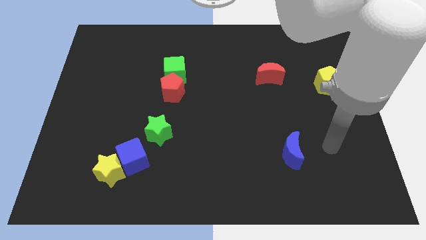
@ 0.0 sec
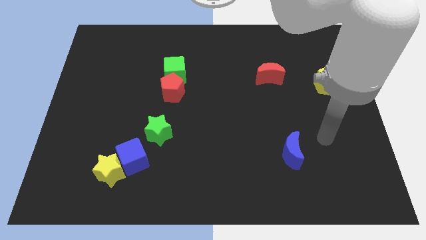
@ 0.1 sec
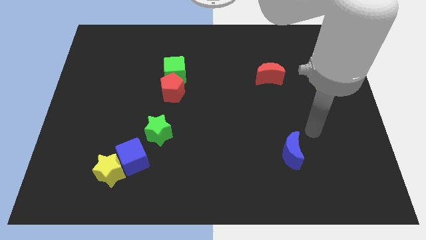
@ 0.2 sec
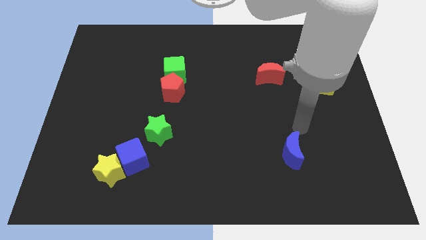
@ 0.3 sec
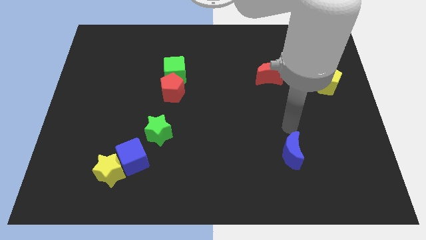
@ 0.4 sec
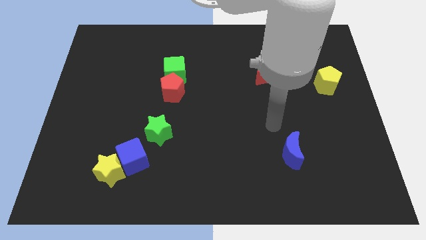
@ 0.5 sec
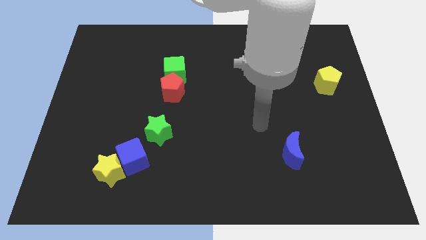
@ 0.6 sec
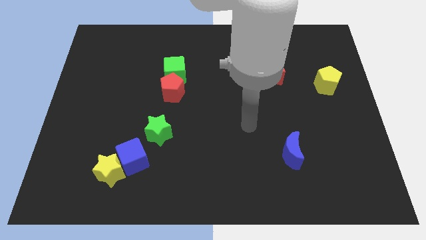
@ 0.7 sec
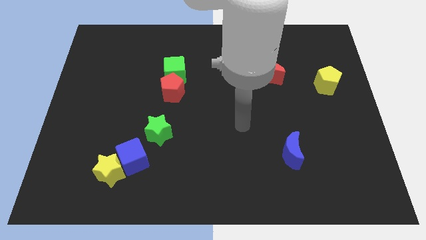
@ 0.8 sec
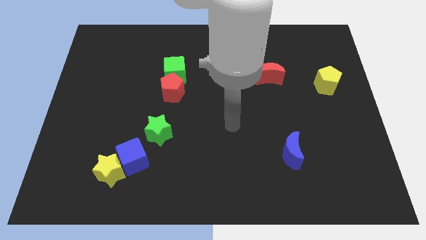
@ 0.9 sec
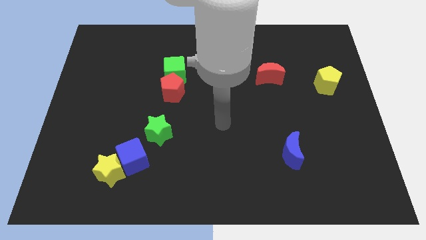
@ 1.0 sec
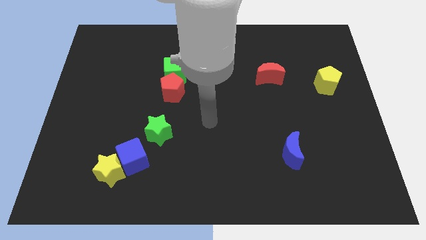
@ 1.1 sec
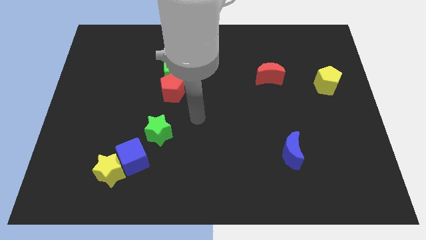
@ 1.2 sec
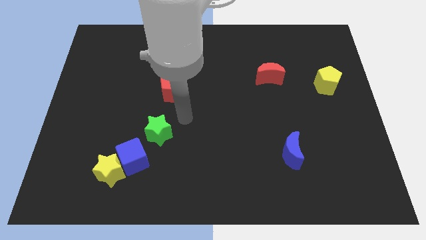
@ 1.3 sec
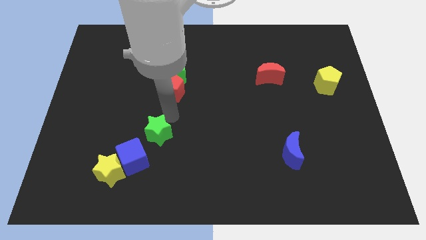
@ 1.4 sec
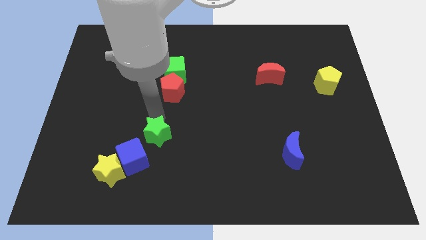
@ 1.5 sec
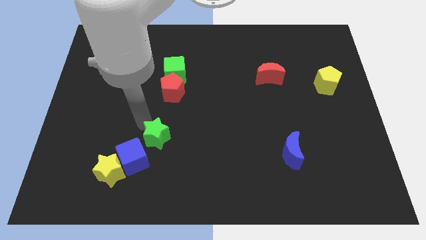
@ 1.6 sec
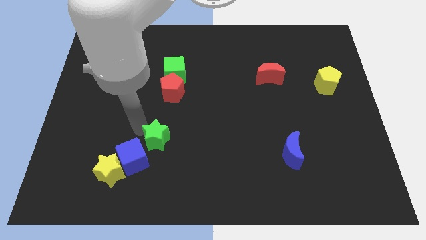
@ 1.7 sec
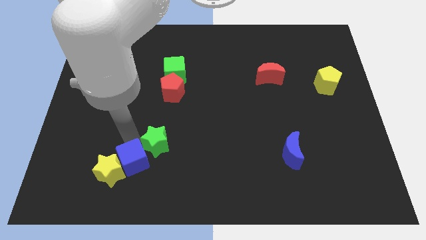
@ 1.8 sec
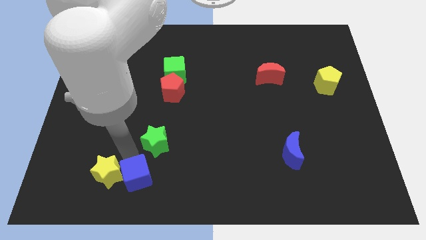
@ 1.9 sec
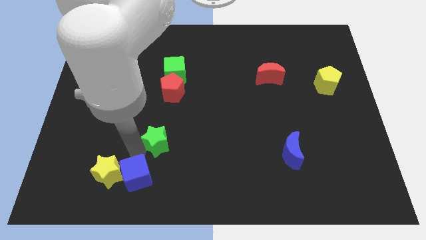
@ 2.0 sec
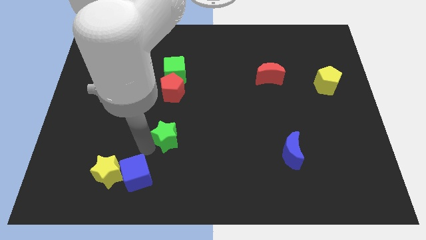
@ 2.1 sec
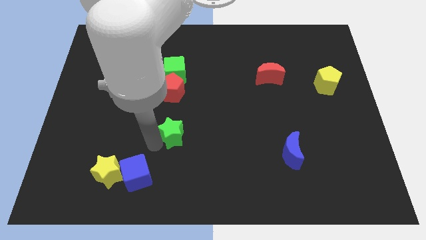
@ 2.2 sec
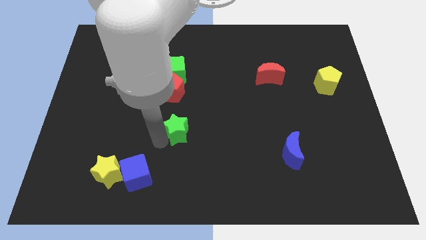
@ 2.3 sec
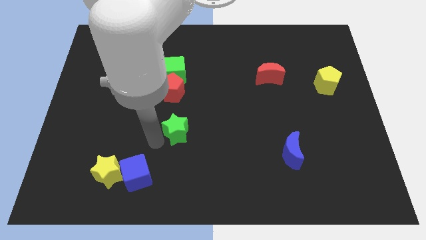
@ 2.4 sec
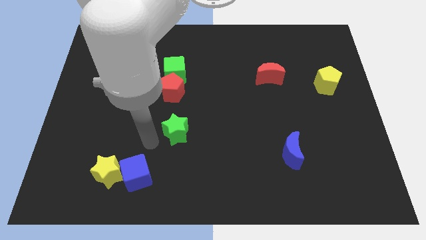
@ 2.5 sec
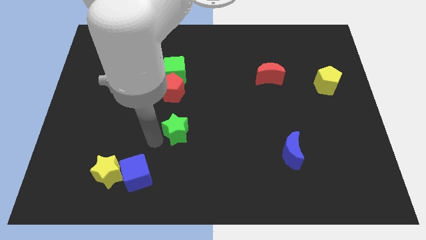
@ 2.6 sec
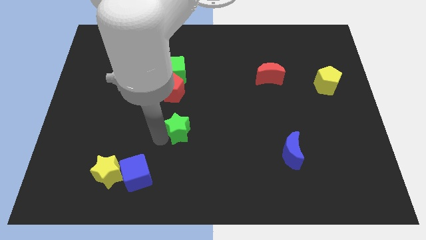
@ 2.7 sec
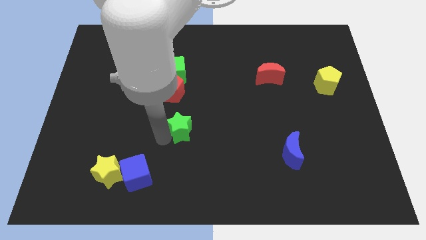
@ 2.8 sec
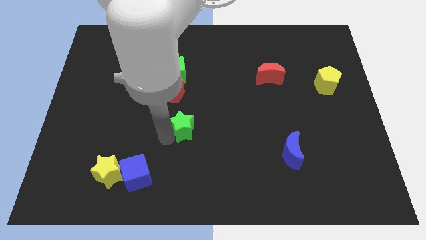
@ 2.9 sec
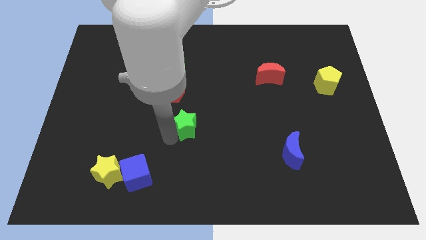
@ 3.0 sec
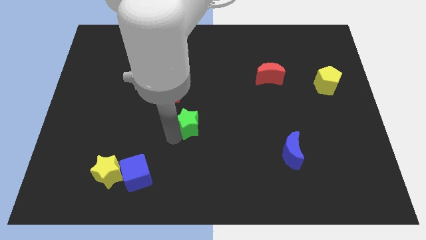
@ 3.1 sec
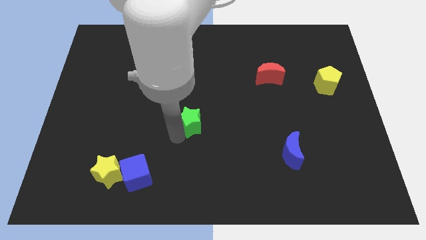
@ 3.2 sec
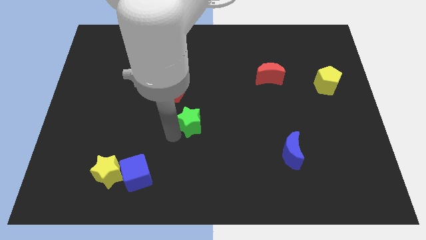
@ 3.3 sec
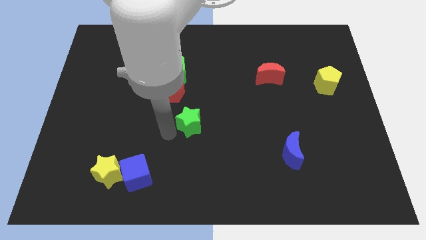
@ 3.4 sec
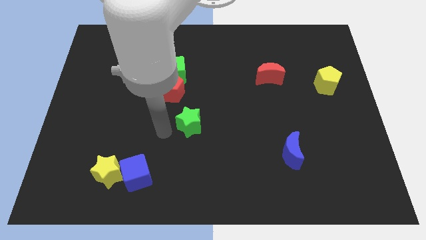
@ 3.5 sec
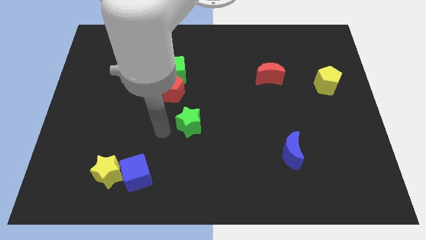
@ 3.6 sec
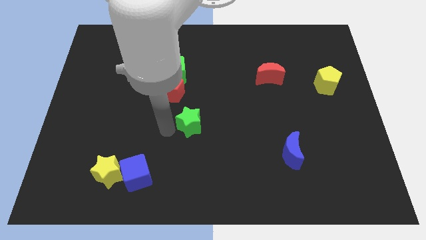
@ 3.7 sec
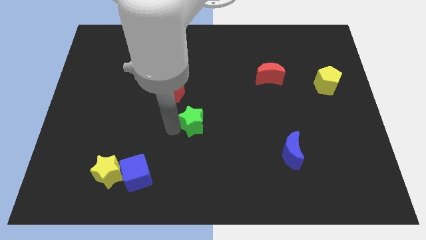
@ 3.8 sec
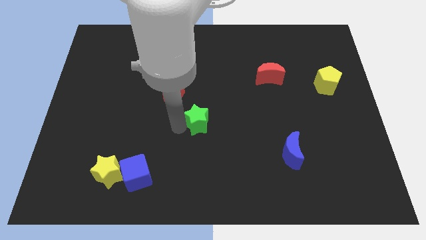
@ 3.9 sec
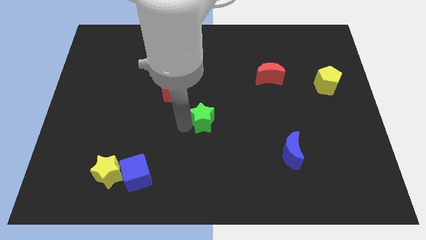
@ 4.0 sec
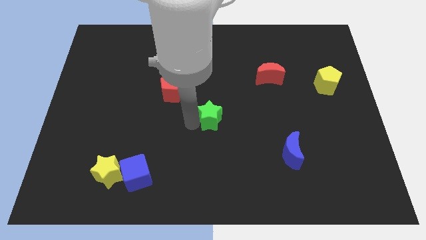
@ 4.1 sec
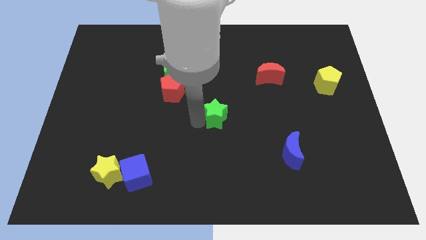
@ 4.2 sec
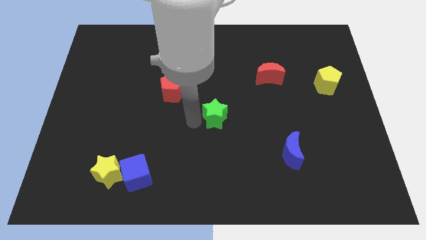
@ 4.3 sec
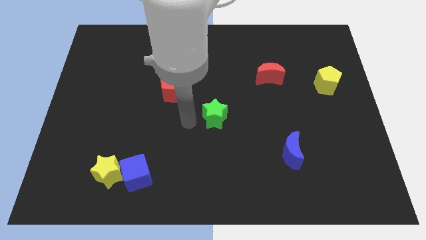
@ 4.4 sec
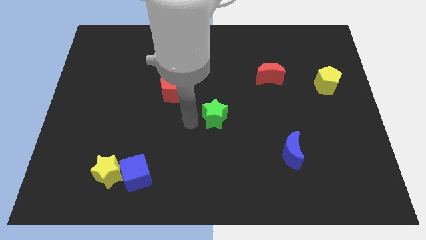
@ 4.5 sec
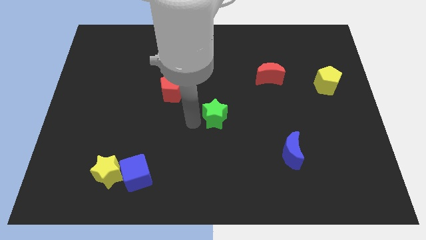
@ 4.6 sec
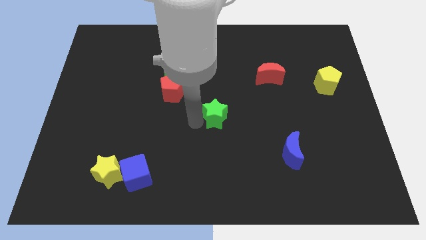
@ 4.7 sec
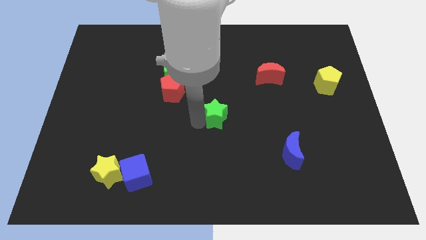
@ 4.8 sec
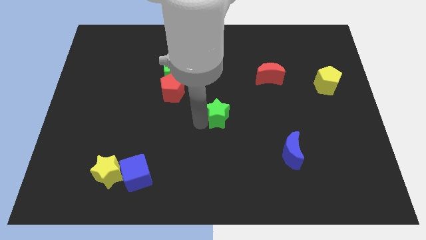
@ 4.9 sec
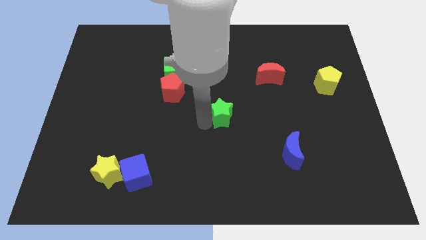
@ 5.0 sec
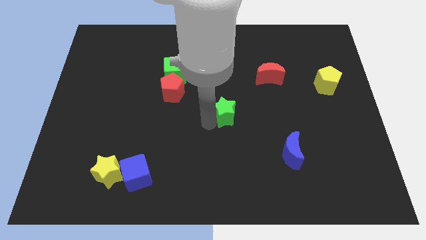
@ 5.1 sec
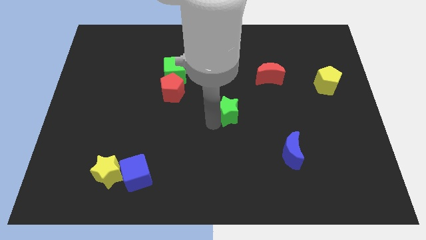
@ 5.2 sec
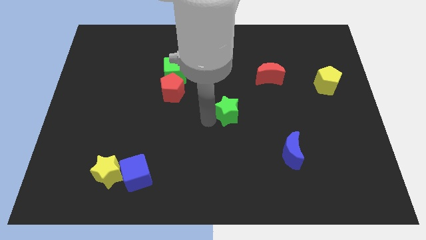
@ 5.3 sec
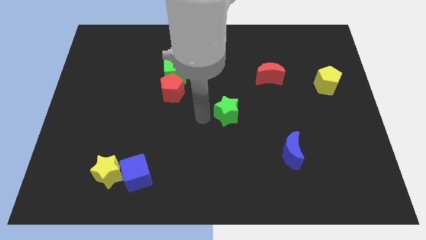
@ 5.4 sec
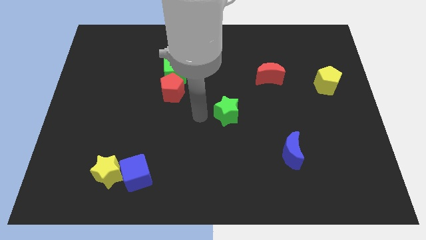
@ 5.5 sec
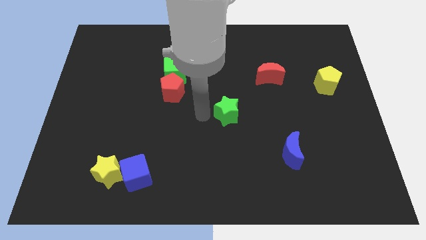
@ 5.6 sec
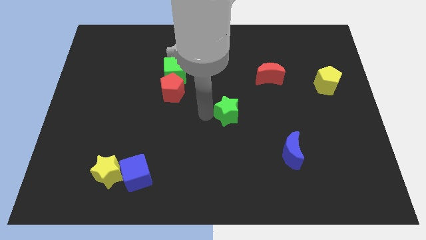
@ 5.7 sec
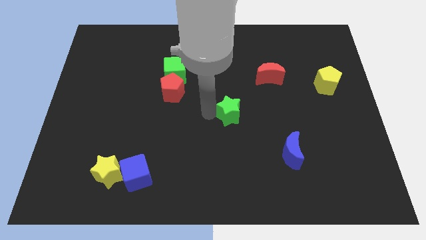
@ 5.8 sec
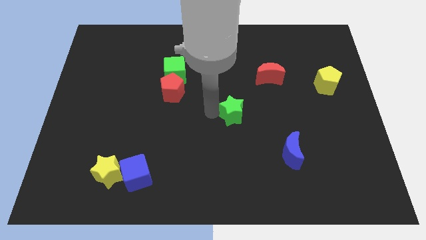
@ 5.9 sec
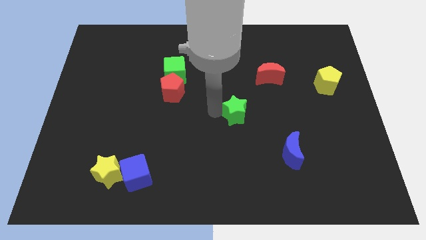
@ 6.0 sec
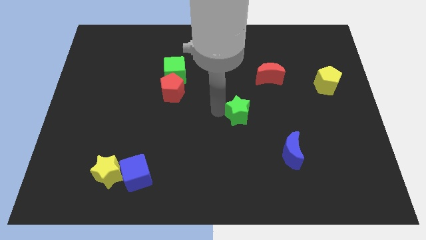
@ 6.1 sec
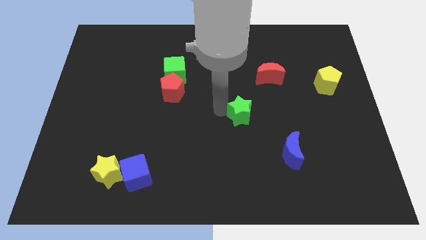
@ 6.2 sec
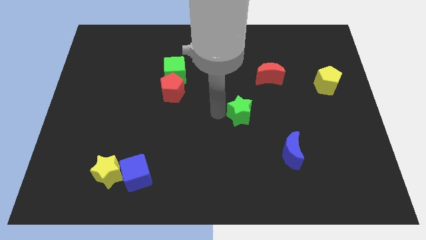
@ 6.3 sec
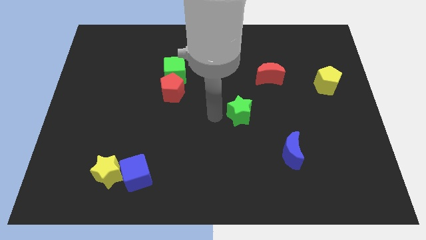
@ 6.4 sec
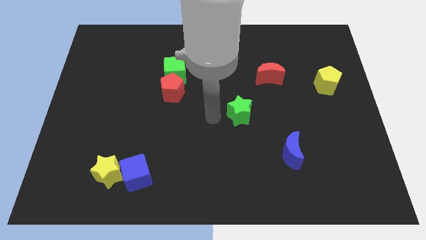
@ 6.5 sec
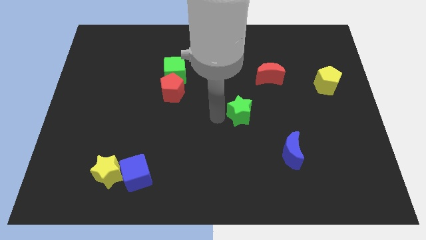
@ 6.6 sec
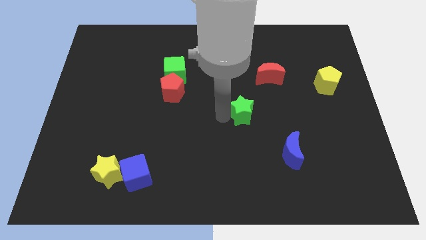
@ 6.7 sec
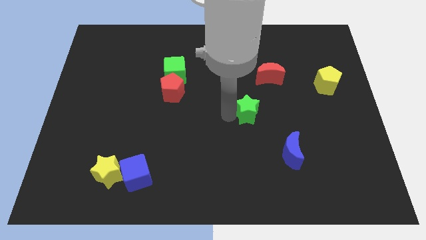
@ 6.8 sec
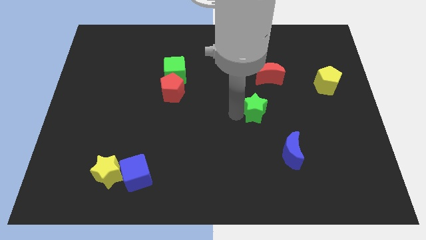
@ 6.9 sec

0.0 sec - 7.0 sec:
move the green star below the red moon

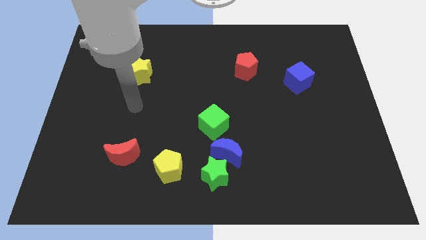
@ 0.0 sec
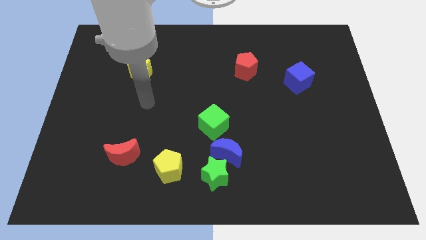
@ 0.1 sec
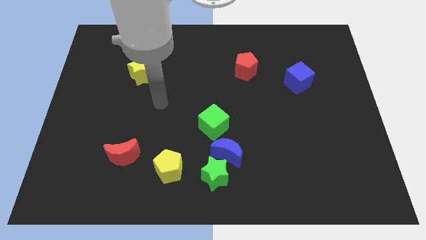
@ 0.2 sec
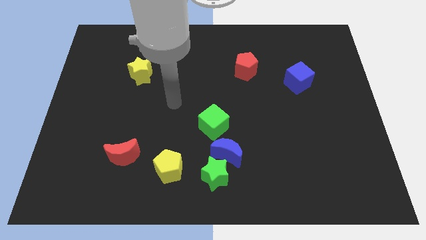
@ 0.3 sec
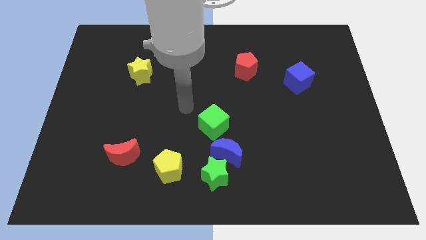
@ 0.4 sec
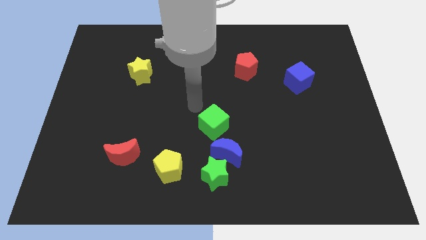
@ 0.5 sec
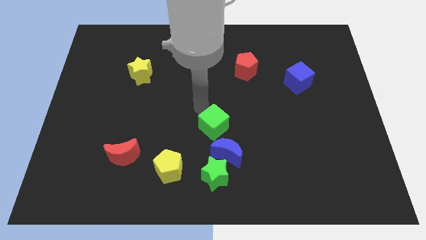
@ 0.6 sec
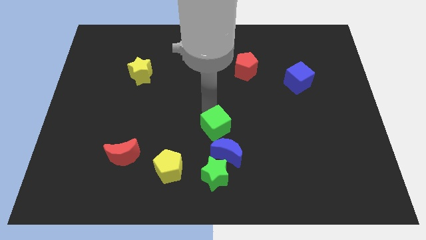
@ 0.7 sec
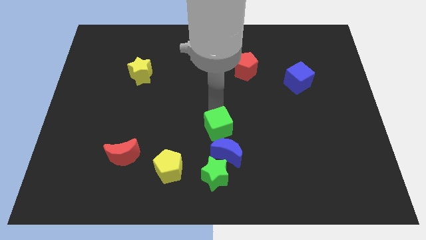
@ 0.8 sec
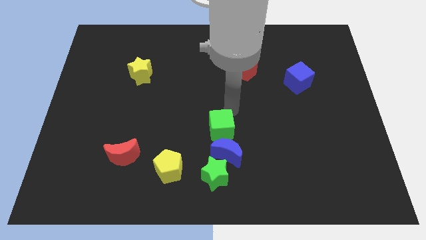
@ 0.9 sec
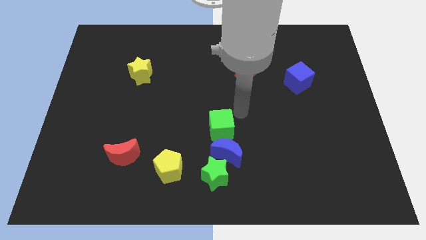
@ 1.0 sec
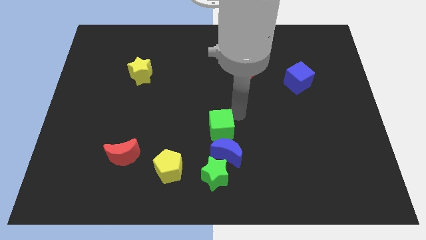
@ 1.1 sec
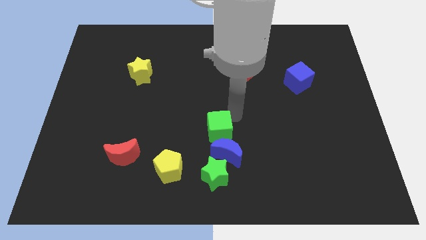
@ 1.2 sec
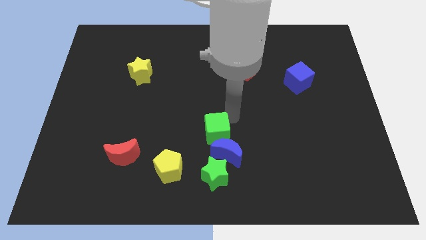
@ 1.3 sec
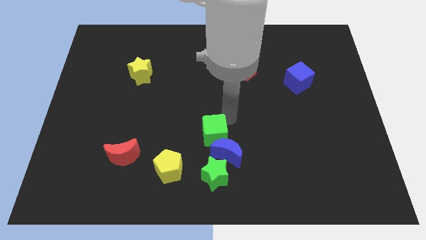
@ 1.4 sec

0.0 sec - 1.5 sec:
put the green cube to the top right side of the yellow pentagon
